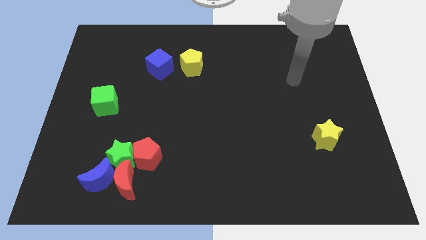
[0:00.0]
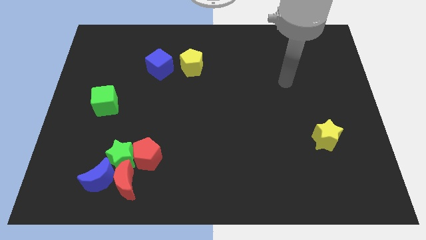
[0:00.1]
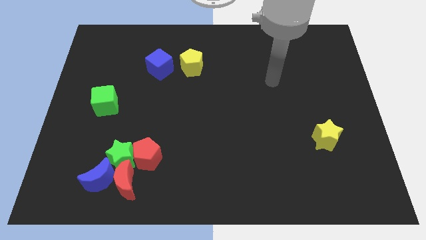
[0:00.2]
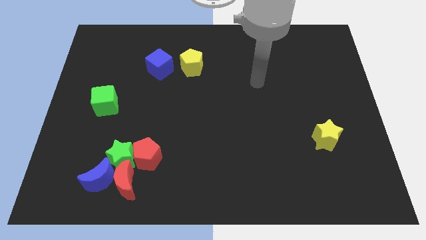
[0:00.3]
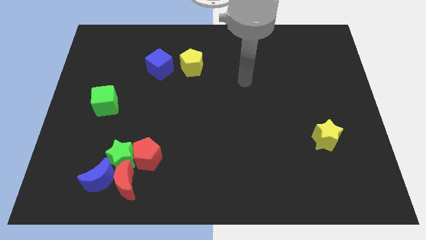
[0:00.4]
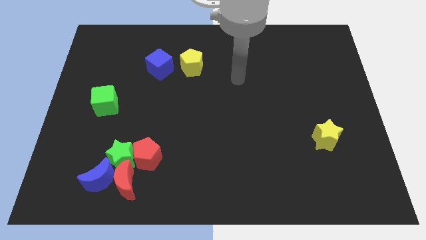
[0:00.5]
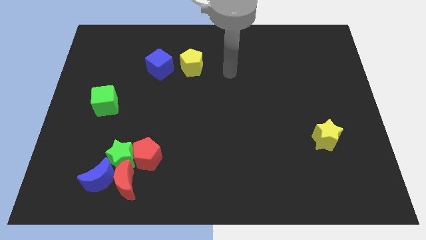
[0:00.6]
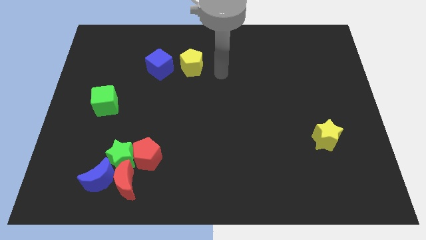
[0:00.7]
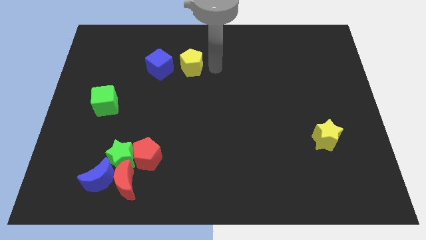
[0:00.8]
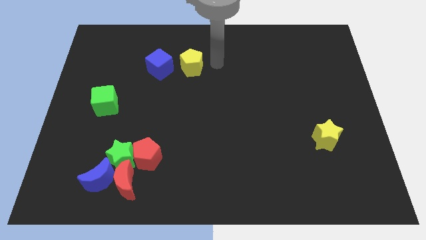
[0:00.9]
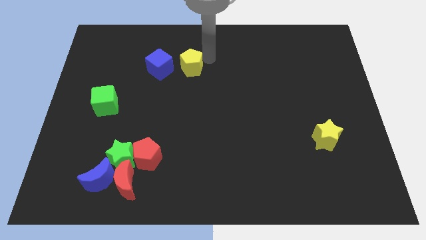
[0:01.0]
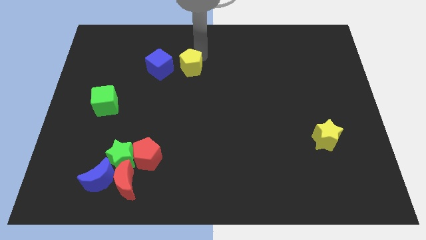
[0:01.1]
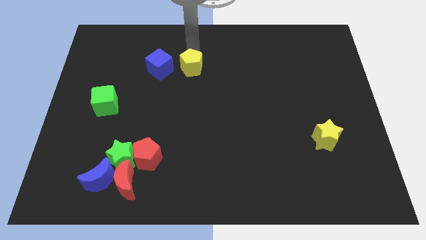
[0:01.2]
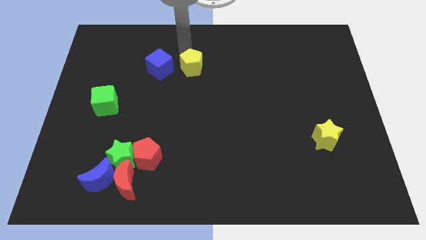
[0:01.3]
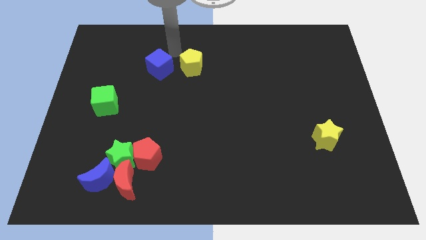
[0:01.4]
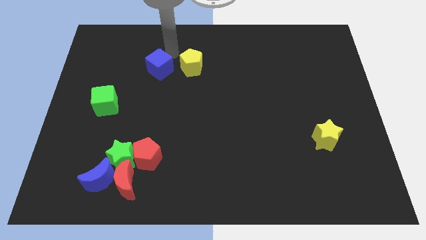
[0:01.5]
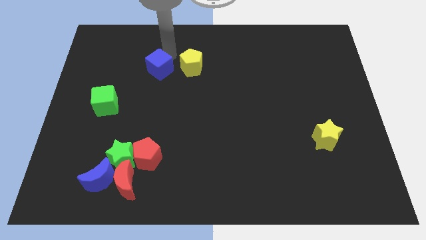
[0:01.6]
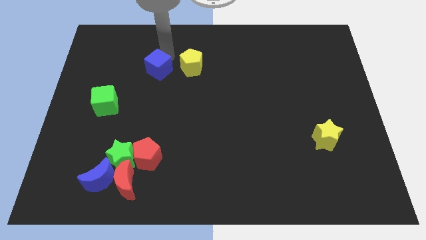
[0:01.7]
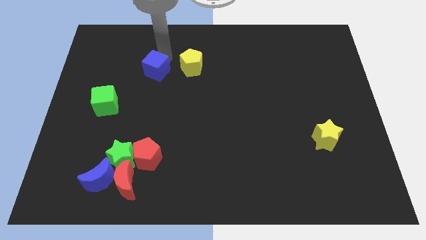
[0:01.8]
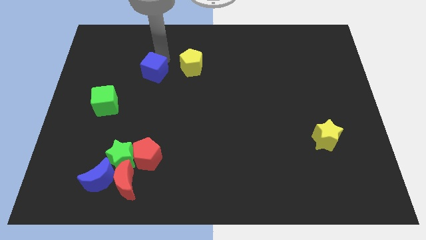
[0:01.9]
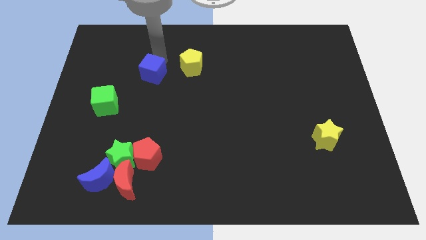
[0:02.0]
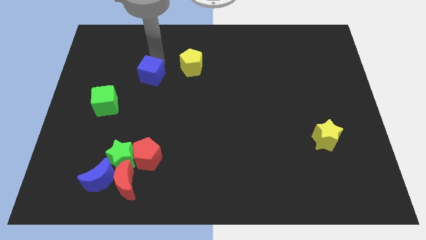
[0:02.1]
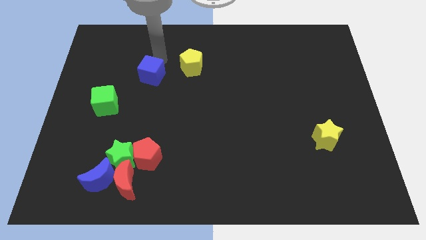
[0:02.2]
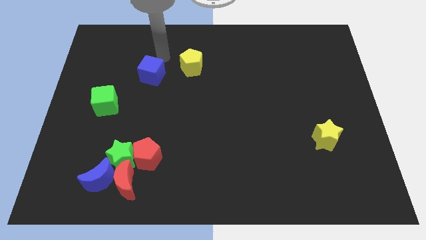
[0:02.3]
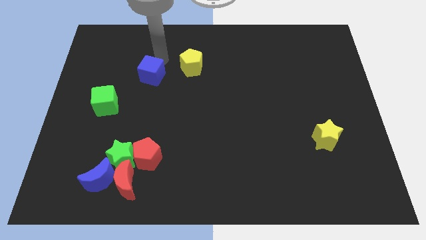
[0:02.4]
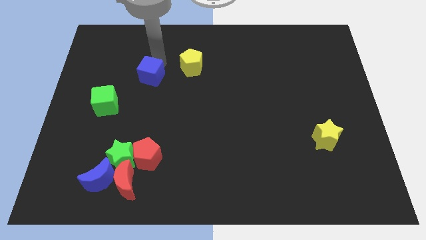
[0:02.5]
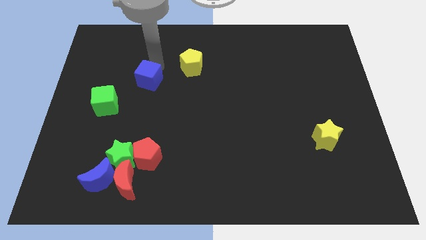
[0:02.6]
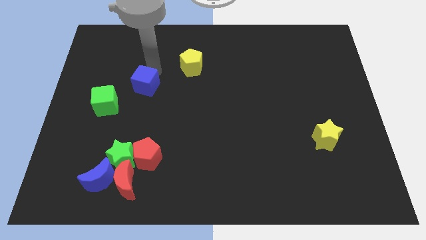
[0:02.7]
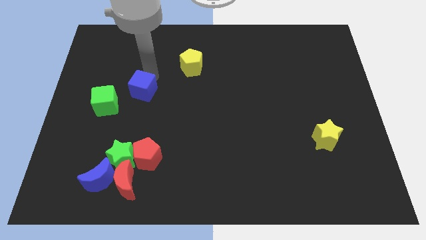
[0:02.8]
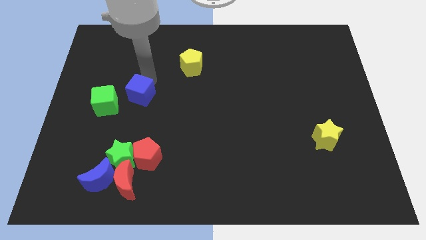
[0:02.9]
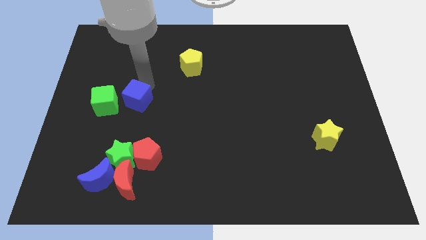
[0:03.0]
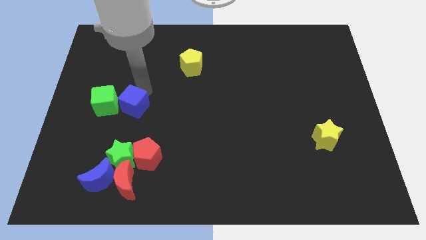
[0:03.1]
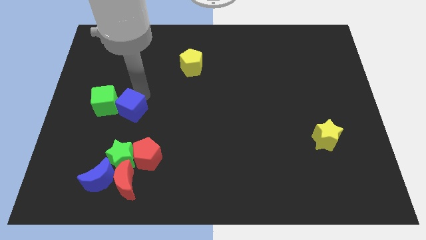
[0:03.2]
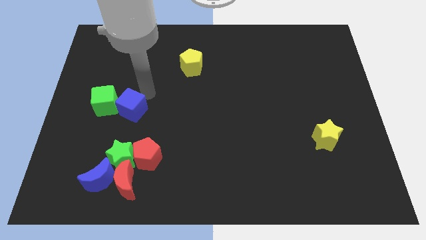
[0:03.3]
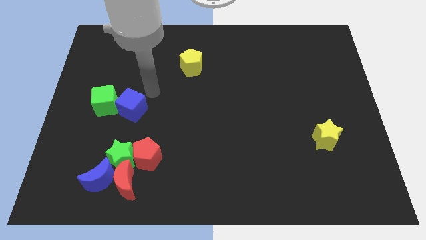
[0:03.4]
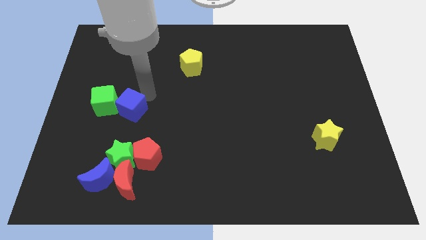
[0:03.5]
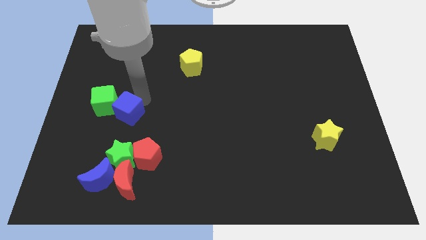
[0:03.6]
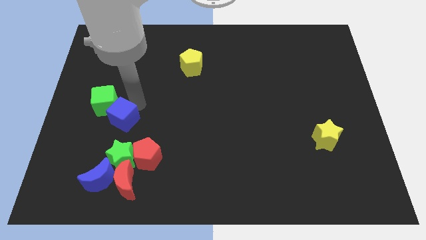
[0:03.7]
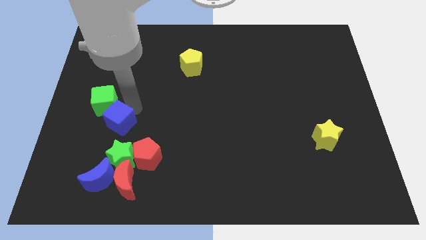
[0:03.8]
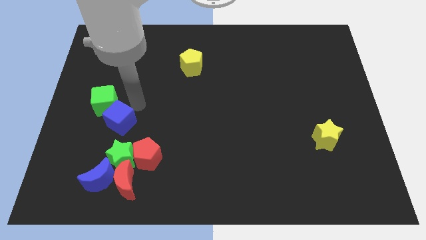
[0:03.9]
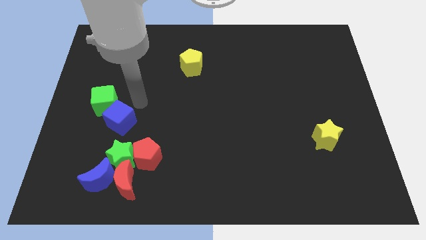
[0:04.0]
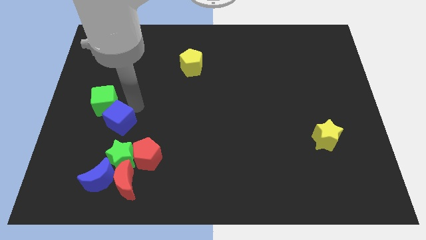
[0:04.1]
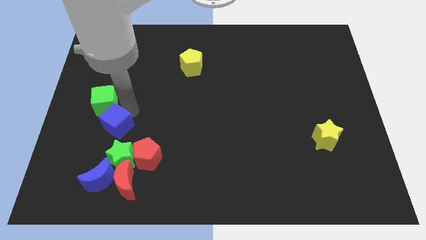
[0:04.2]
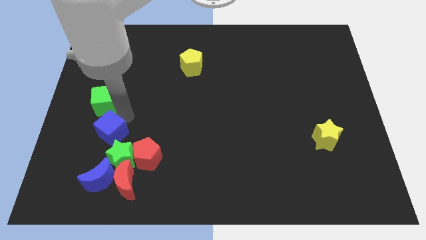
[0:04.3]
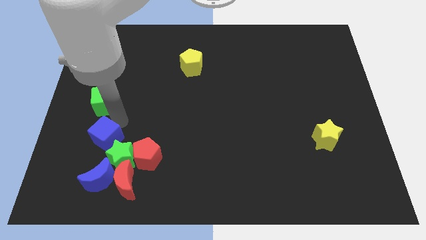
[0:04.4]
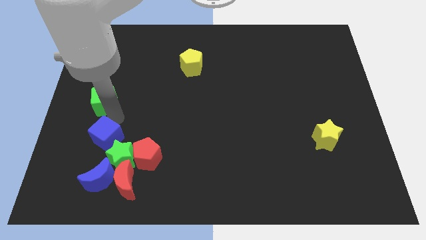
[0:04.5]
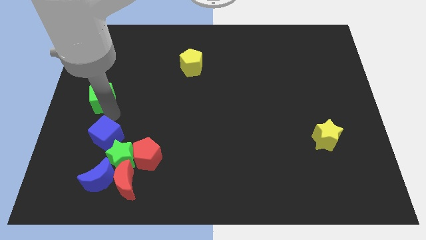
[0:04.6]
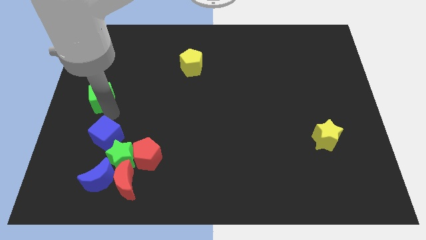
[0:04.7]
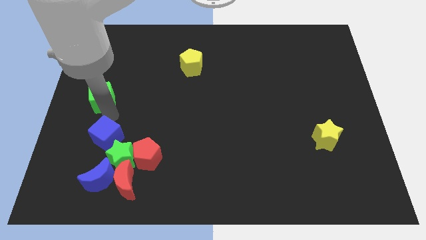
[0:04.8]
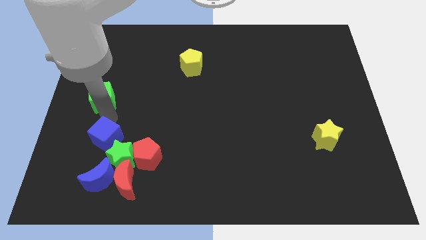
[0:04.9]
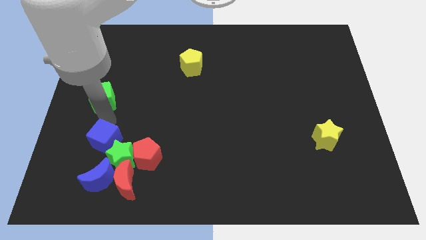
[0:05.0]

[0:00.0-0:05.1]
put the blue cube to the top left of the red moon

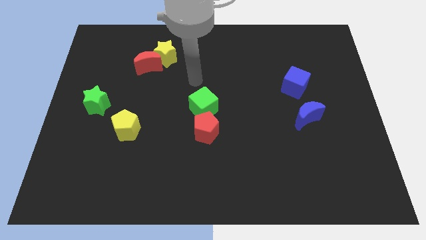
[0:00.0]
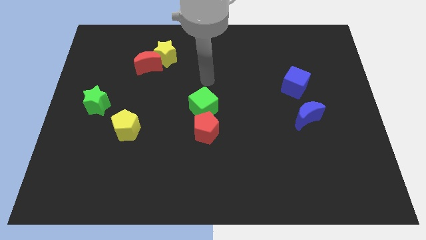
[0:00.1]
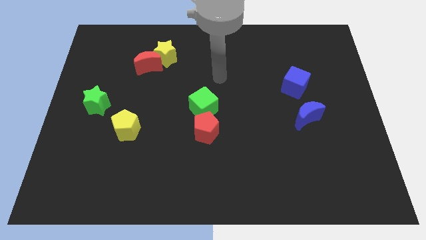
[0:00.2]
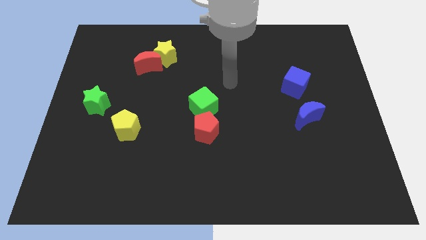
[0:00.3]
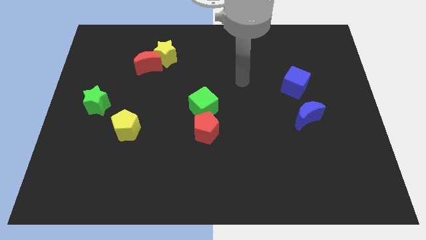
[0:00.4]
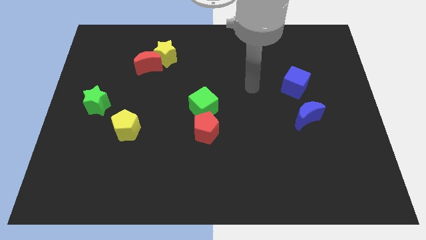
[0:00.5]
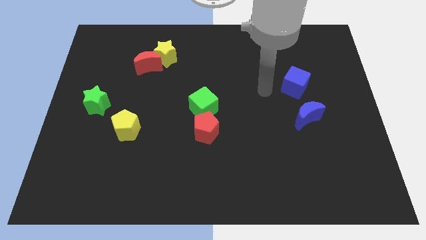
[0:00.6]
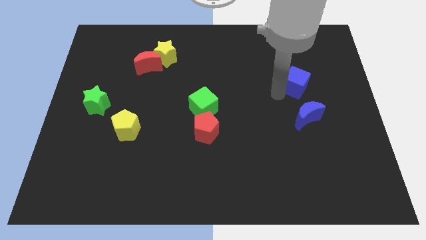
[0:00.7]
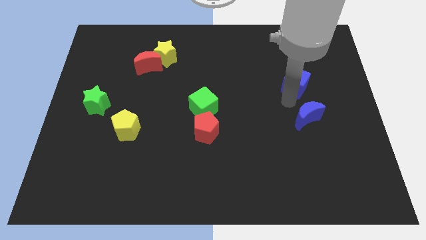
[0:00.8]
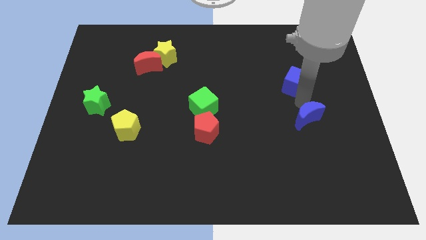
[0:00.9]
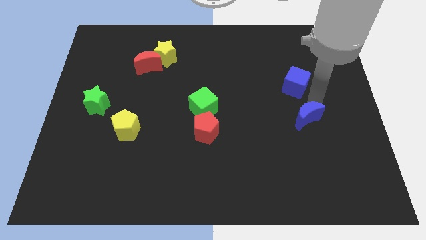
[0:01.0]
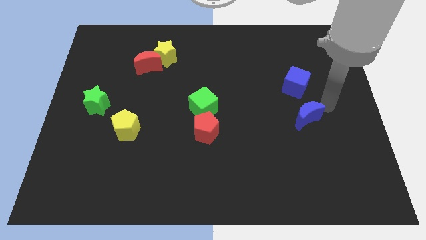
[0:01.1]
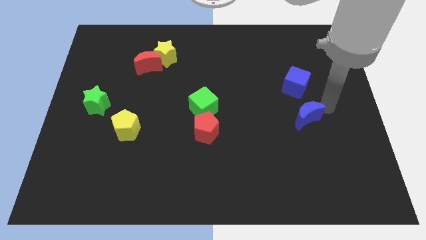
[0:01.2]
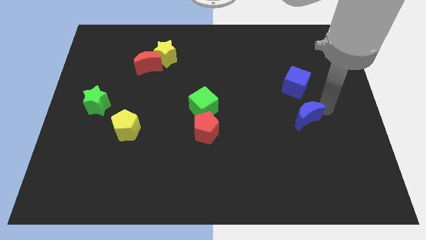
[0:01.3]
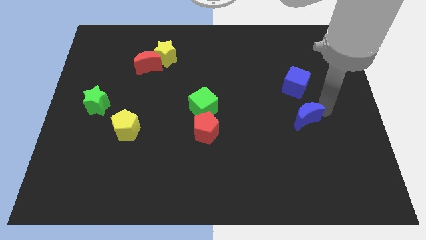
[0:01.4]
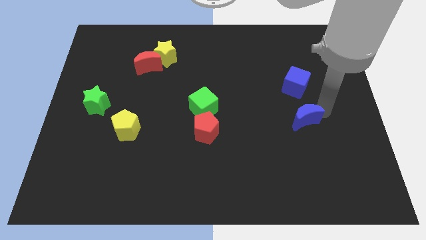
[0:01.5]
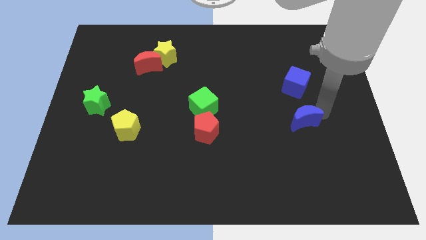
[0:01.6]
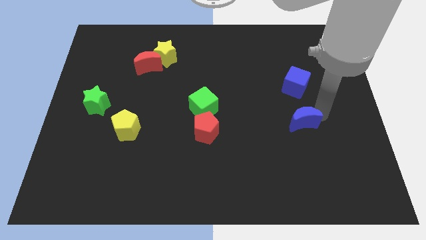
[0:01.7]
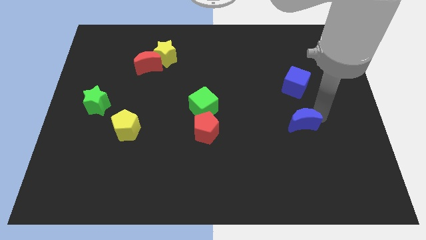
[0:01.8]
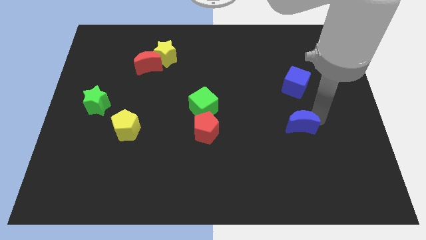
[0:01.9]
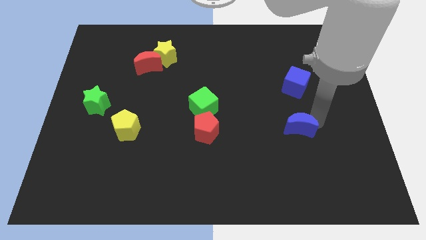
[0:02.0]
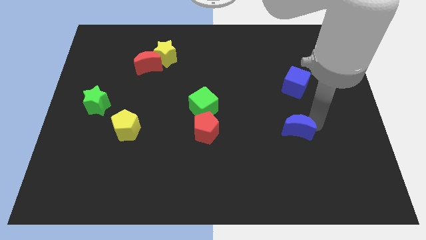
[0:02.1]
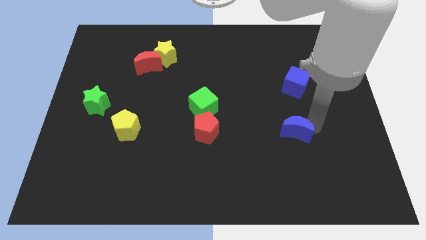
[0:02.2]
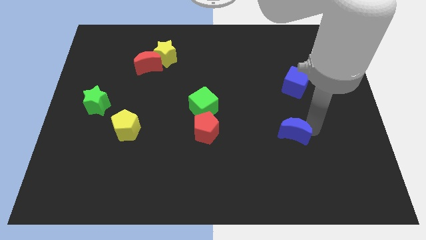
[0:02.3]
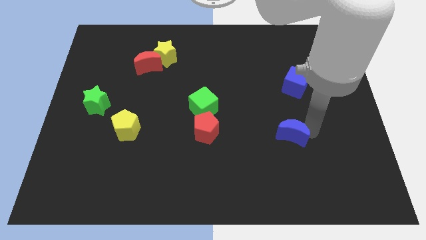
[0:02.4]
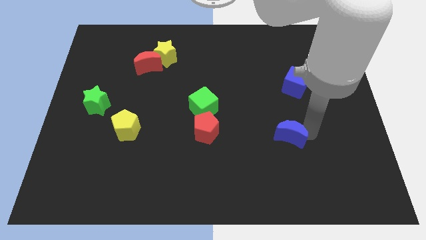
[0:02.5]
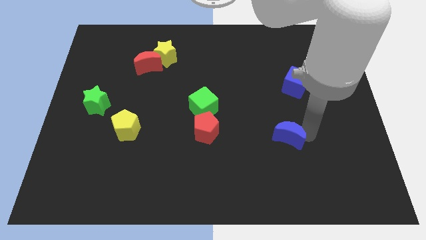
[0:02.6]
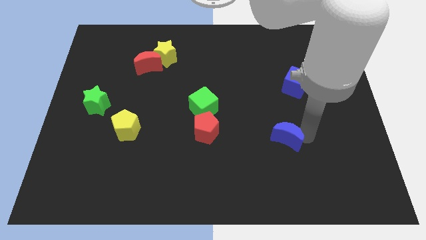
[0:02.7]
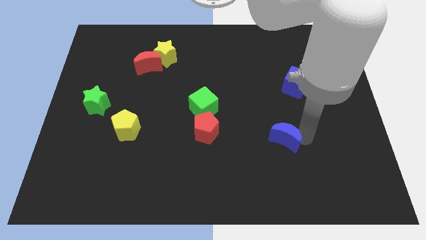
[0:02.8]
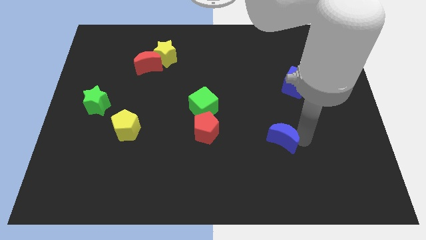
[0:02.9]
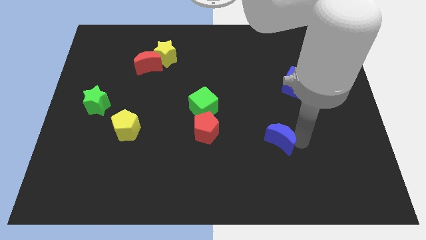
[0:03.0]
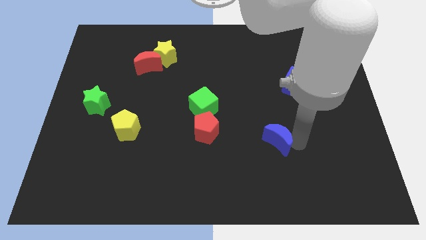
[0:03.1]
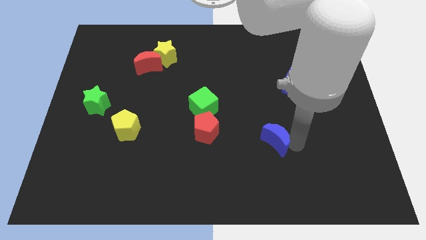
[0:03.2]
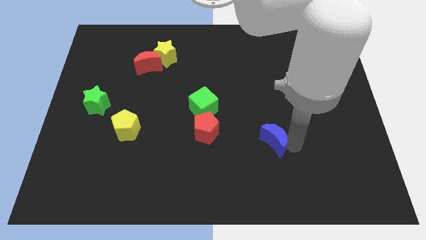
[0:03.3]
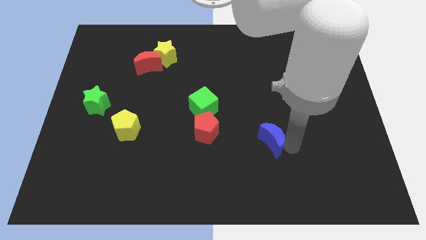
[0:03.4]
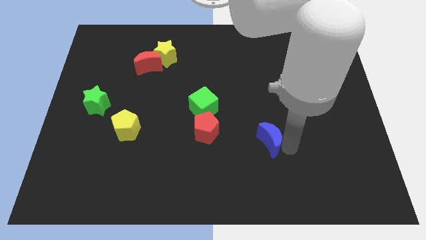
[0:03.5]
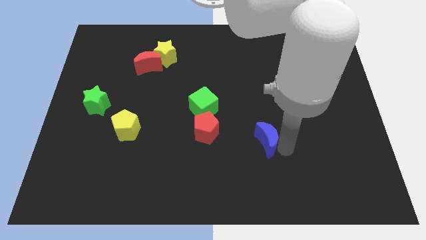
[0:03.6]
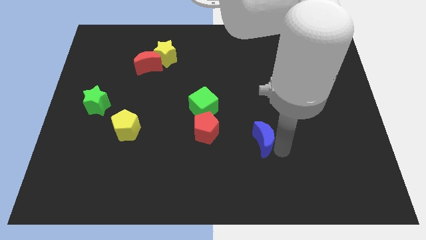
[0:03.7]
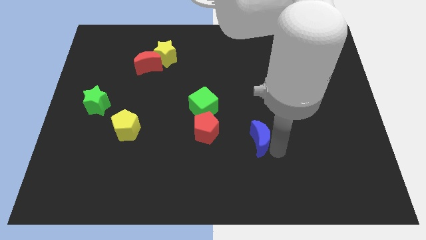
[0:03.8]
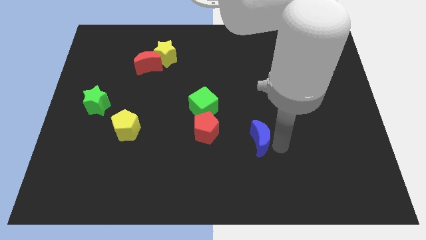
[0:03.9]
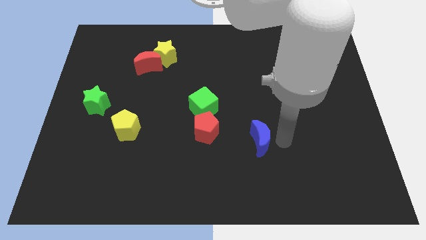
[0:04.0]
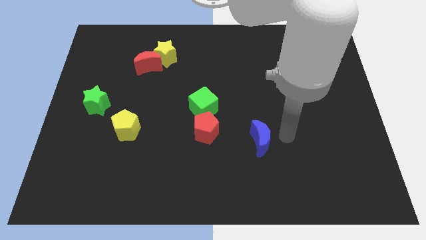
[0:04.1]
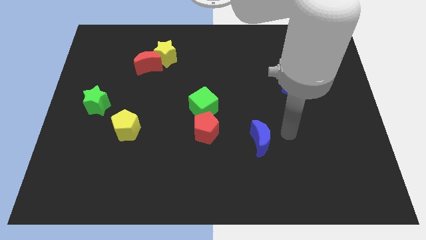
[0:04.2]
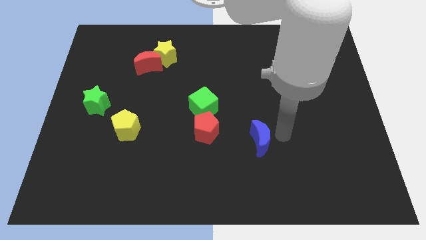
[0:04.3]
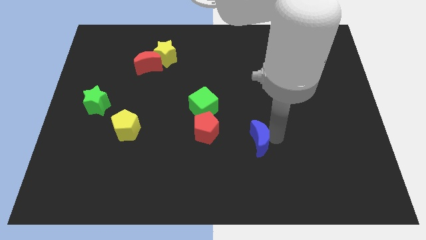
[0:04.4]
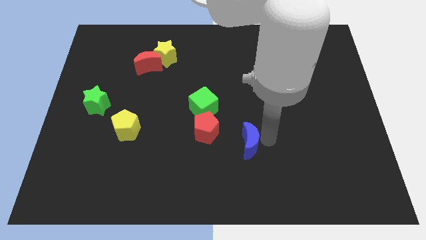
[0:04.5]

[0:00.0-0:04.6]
slide the blue moon to the bottom right side of the red pentagon
